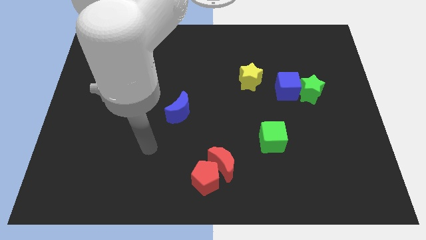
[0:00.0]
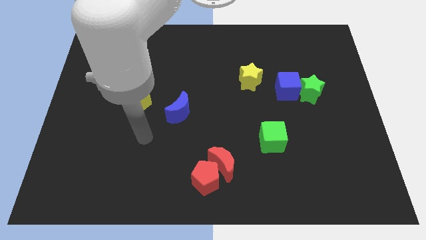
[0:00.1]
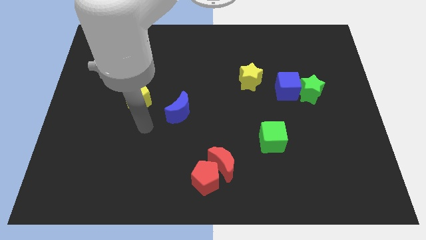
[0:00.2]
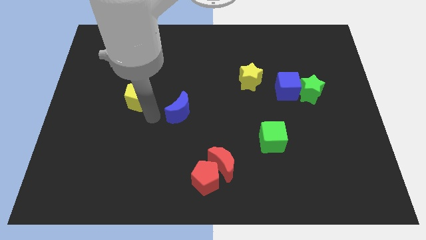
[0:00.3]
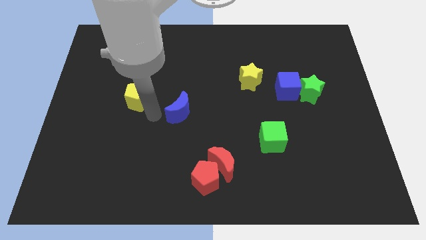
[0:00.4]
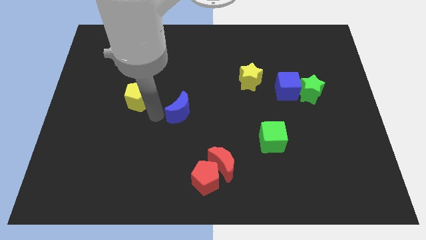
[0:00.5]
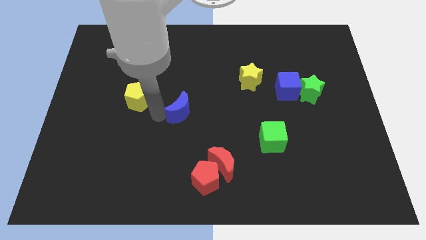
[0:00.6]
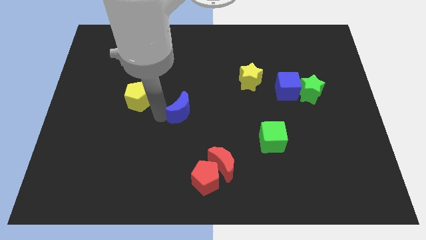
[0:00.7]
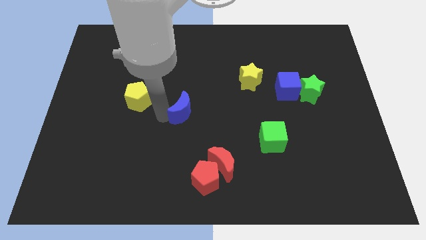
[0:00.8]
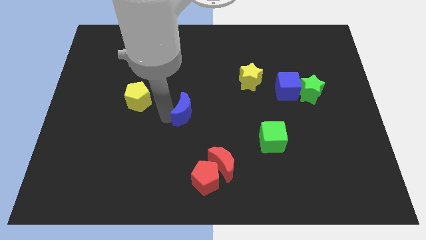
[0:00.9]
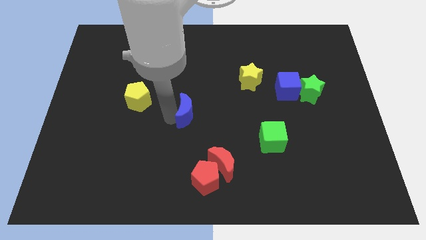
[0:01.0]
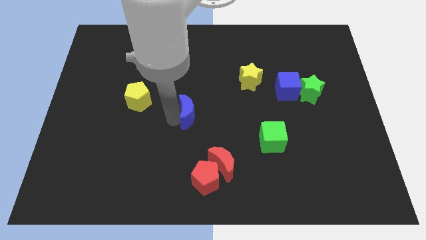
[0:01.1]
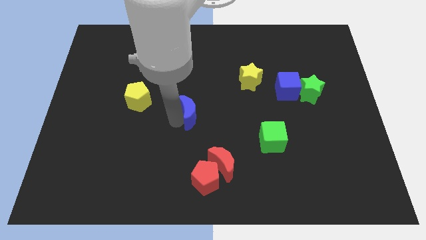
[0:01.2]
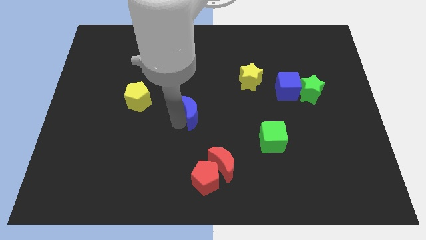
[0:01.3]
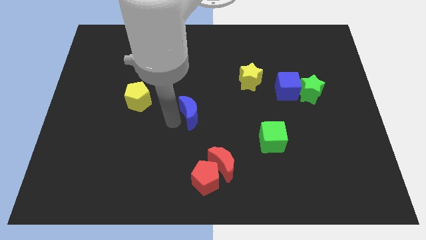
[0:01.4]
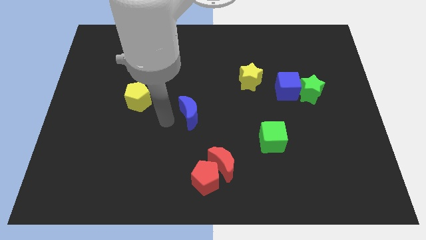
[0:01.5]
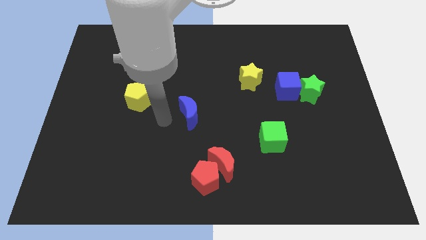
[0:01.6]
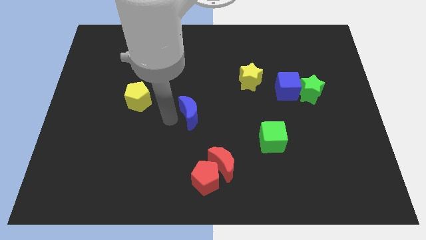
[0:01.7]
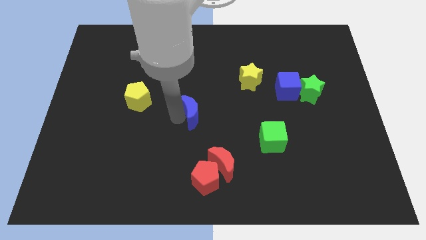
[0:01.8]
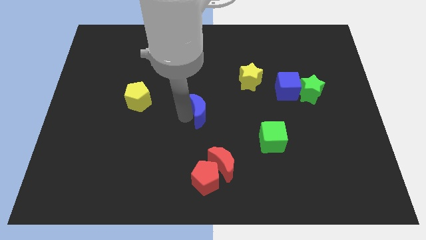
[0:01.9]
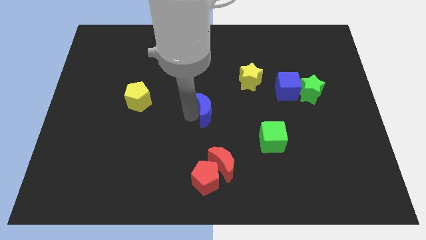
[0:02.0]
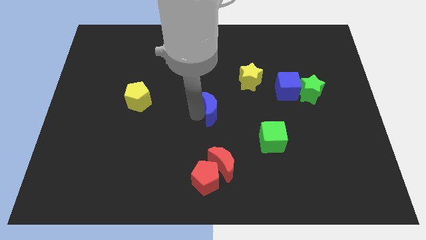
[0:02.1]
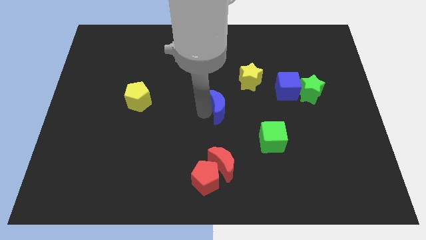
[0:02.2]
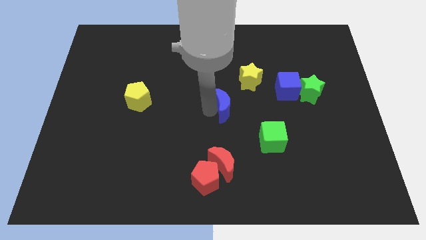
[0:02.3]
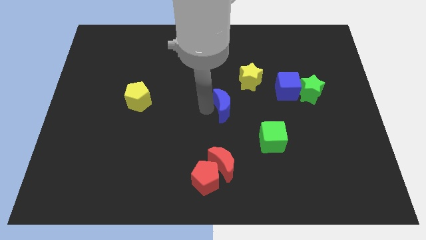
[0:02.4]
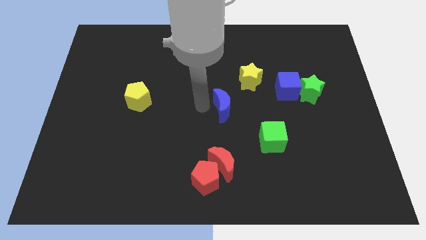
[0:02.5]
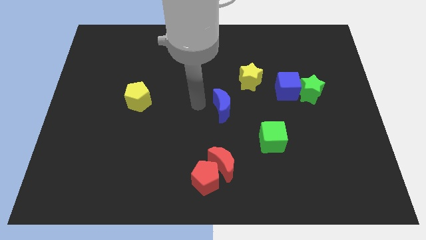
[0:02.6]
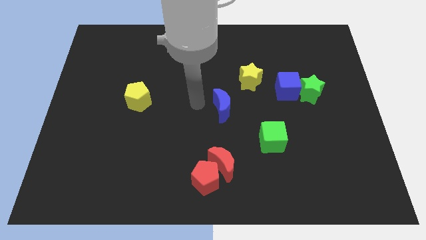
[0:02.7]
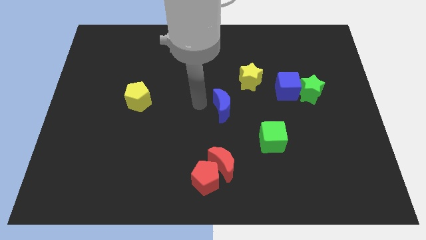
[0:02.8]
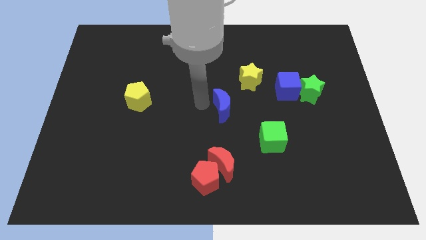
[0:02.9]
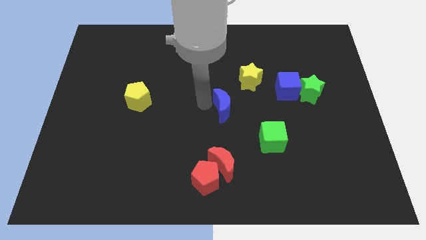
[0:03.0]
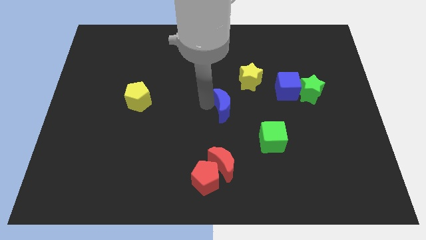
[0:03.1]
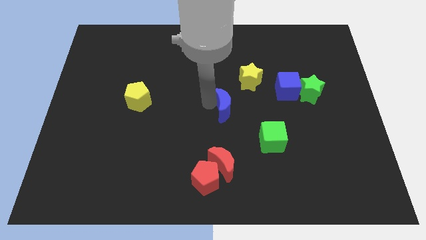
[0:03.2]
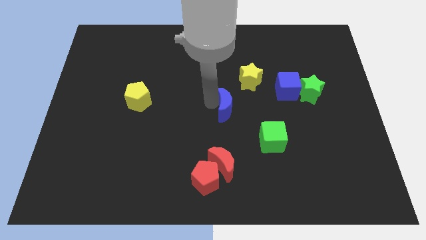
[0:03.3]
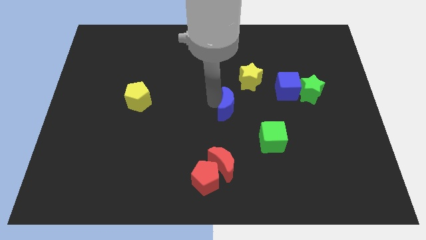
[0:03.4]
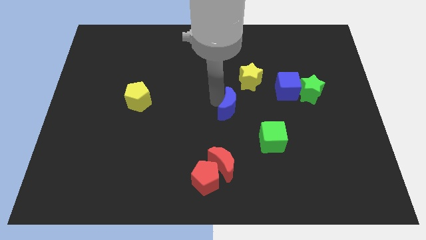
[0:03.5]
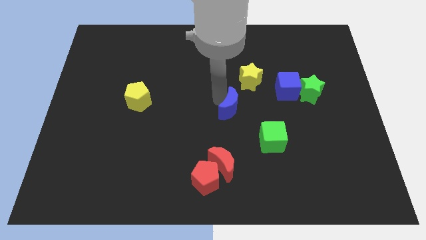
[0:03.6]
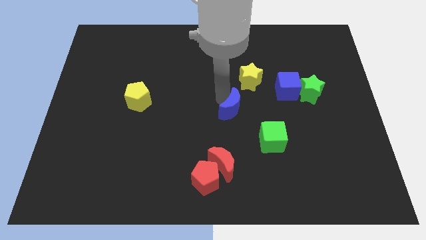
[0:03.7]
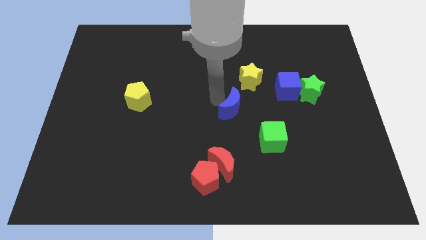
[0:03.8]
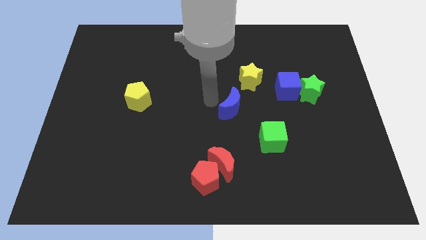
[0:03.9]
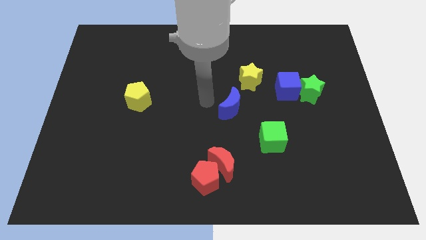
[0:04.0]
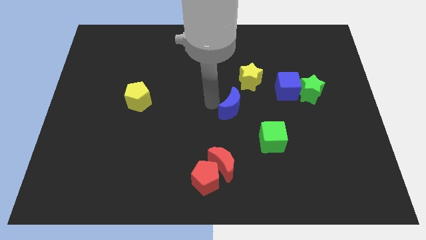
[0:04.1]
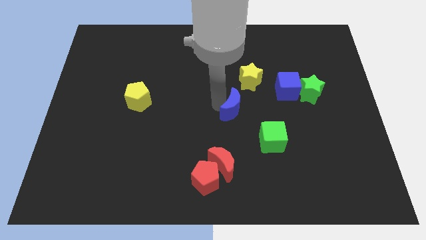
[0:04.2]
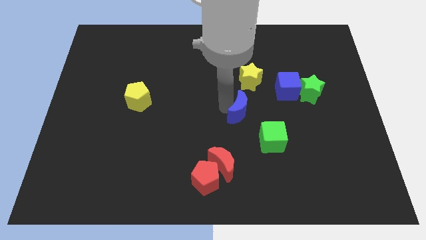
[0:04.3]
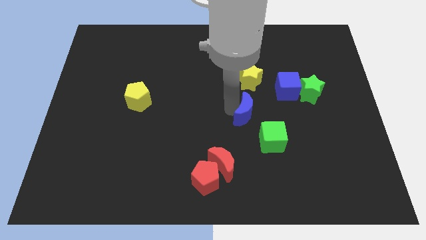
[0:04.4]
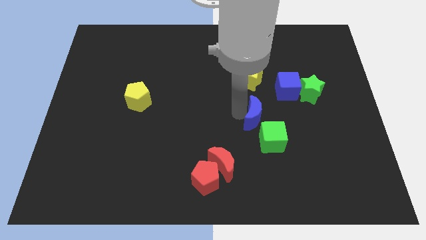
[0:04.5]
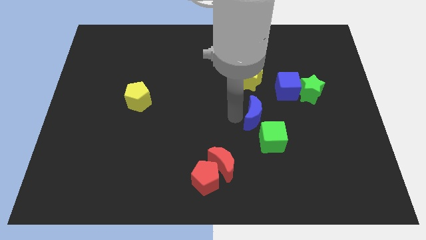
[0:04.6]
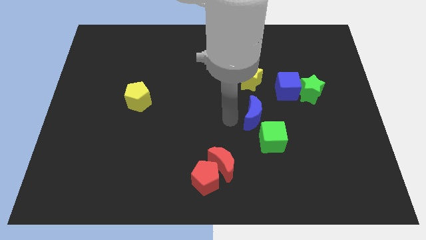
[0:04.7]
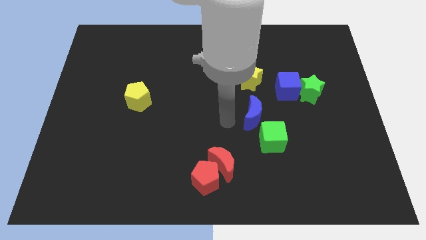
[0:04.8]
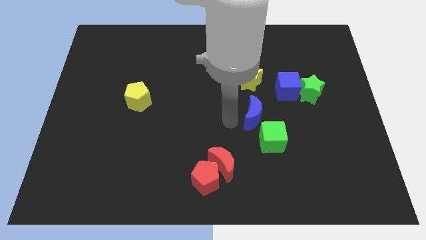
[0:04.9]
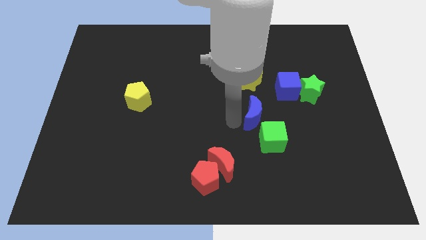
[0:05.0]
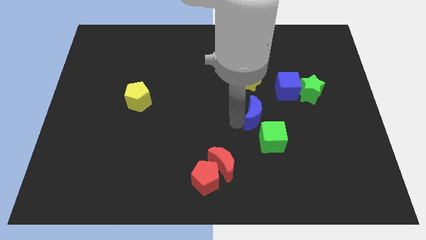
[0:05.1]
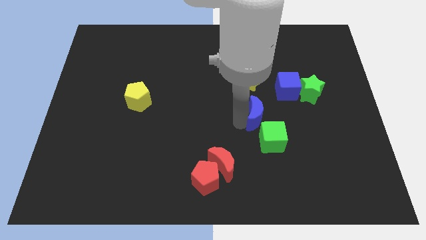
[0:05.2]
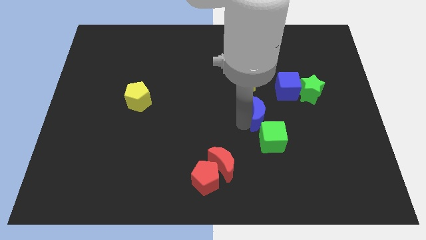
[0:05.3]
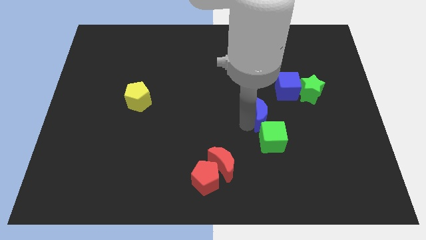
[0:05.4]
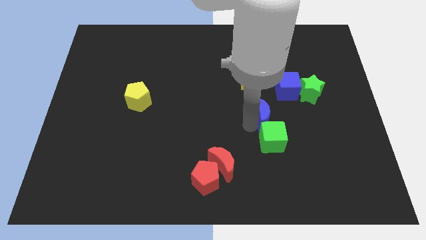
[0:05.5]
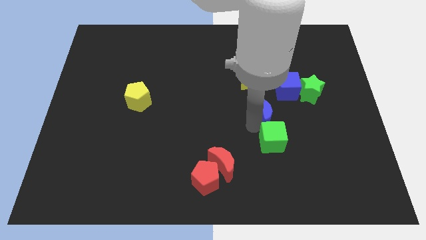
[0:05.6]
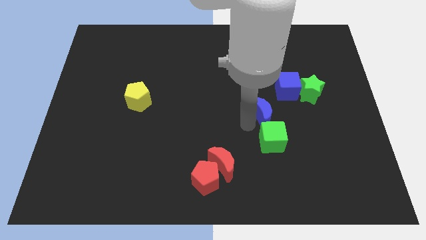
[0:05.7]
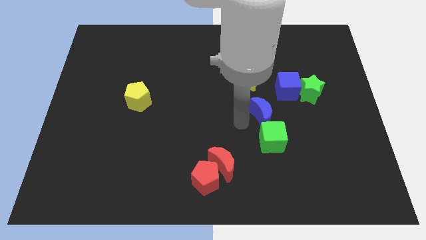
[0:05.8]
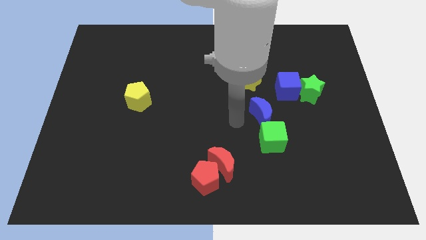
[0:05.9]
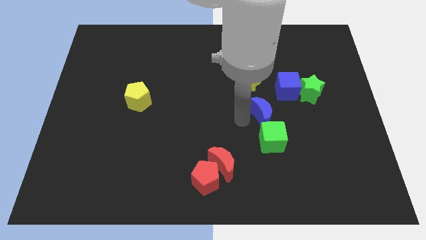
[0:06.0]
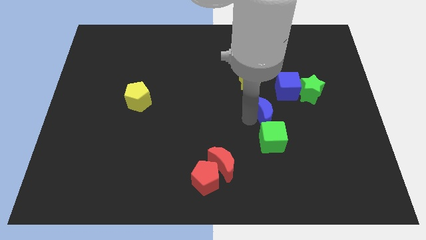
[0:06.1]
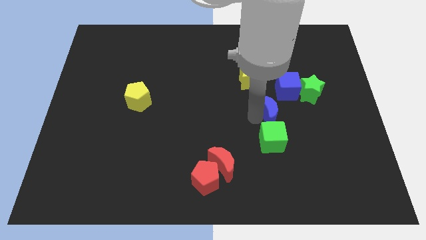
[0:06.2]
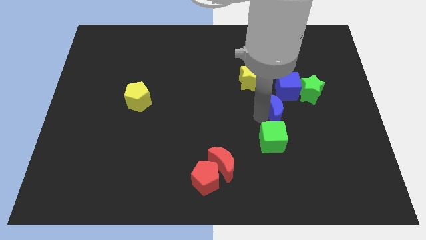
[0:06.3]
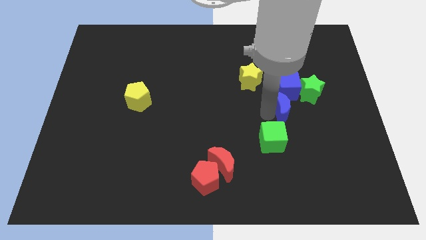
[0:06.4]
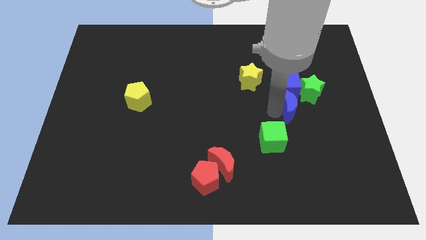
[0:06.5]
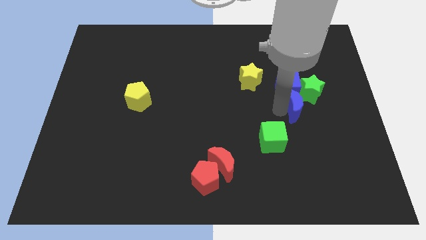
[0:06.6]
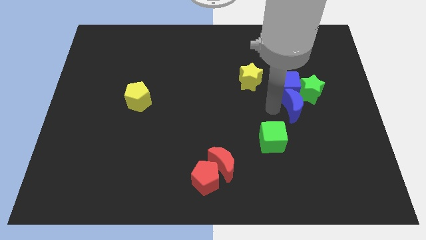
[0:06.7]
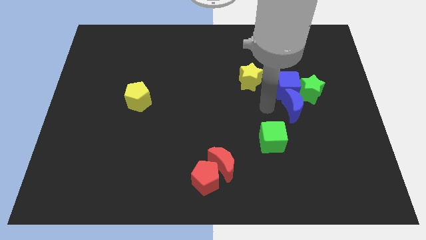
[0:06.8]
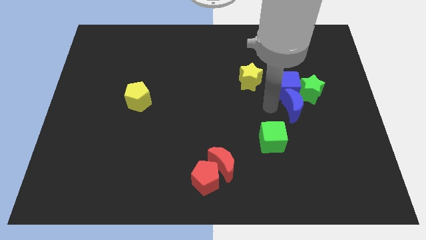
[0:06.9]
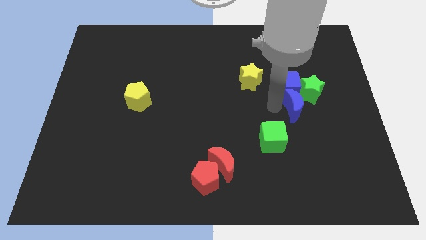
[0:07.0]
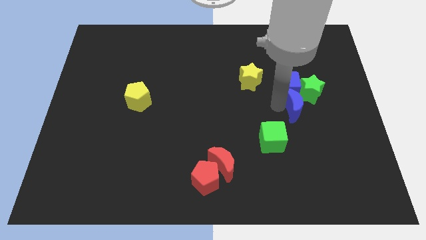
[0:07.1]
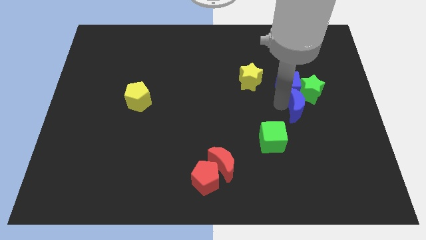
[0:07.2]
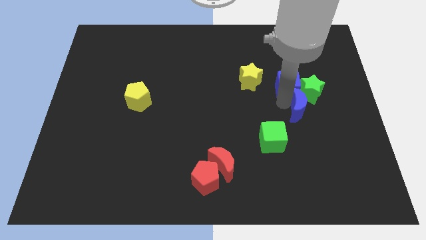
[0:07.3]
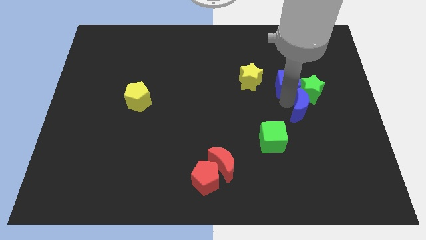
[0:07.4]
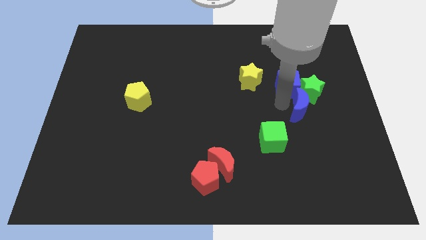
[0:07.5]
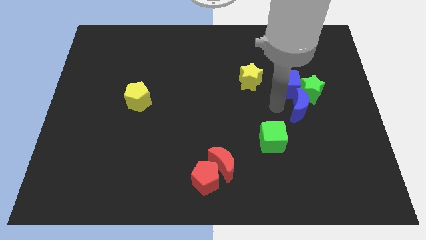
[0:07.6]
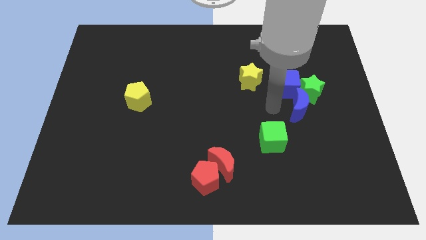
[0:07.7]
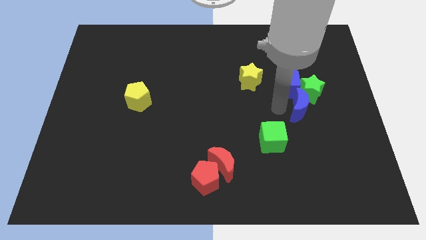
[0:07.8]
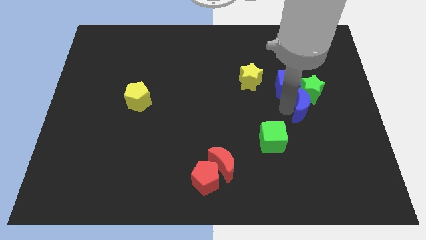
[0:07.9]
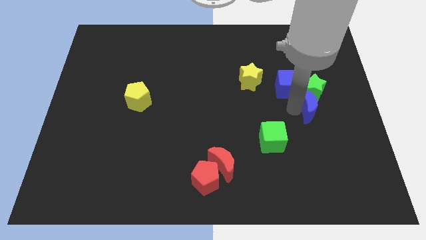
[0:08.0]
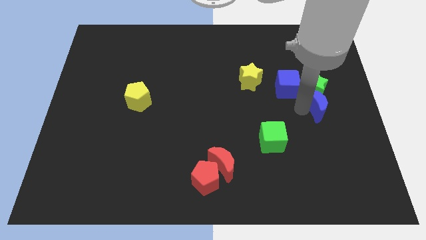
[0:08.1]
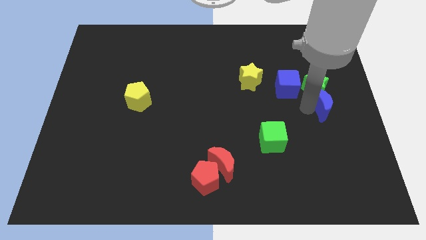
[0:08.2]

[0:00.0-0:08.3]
slide the blue moon to the right side of the board
